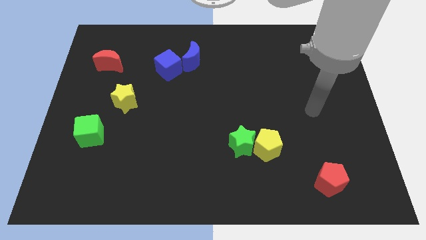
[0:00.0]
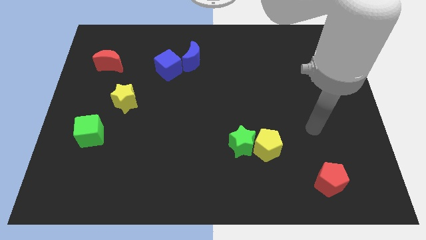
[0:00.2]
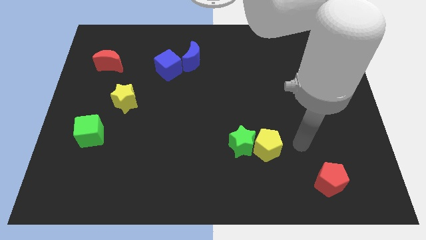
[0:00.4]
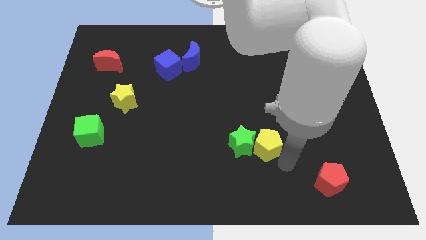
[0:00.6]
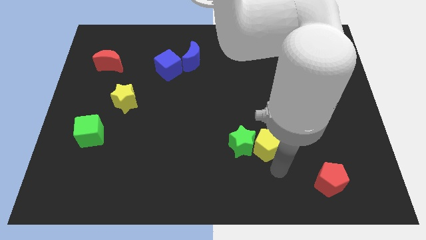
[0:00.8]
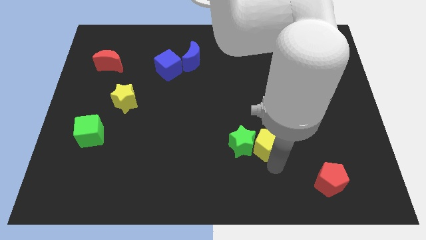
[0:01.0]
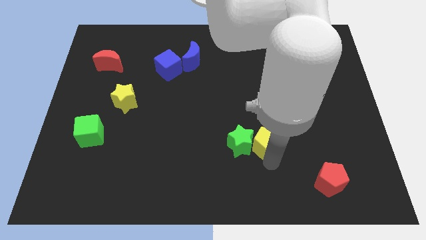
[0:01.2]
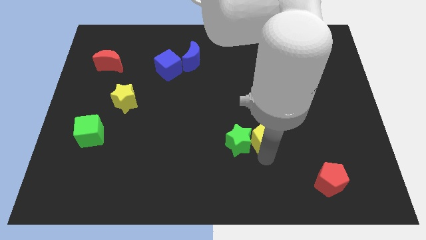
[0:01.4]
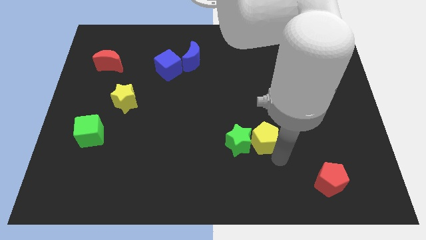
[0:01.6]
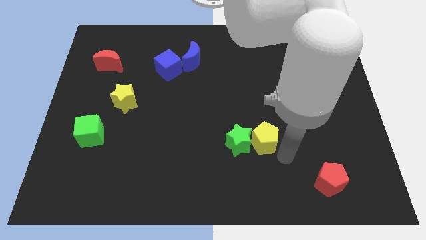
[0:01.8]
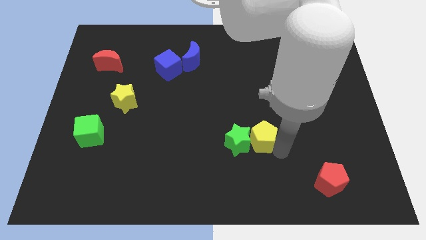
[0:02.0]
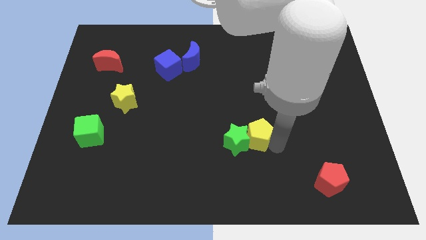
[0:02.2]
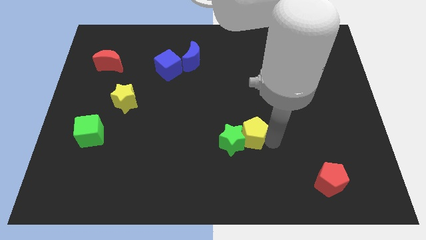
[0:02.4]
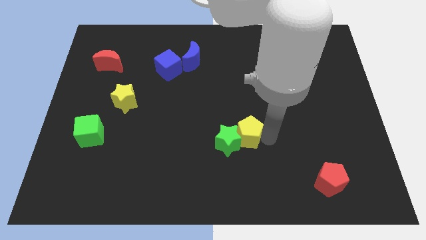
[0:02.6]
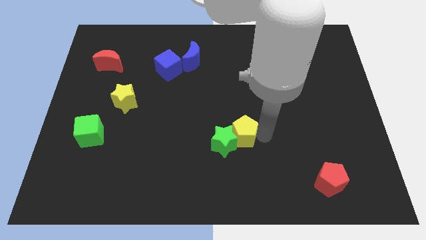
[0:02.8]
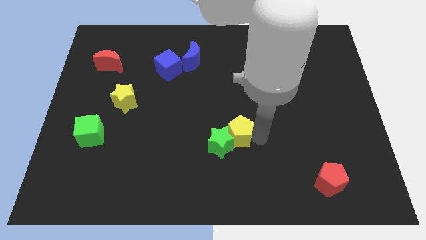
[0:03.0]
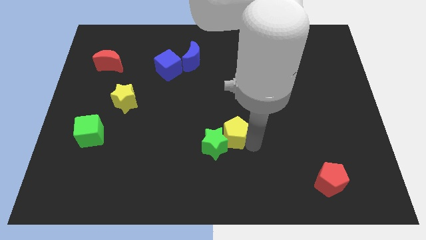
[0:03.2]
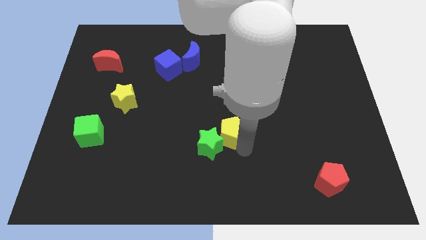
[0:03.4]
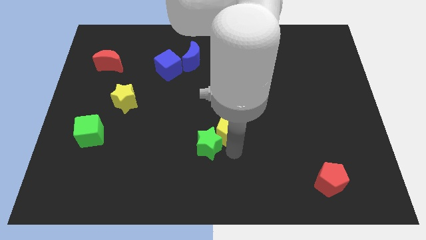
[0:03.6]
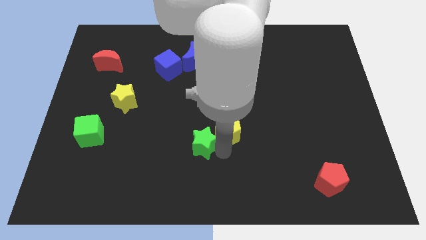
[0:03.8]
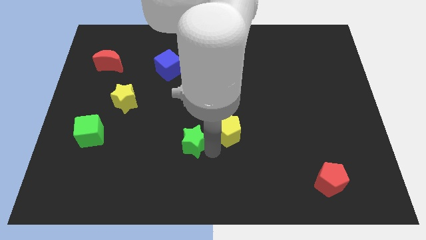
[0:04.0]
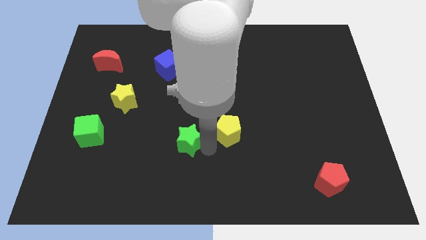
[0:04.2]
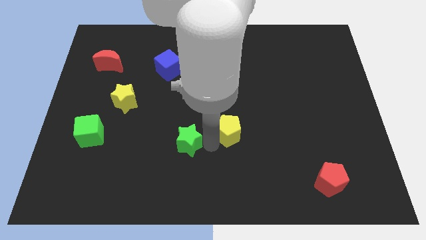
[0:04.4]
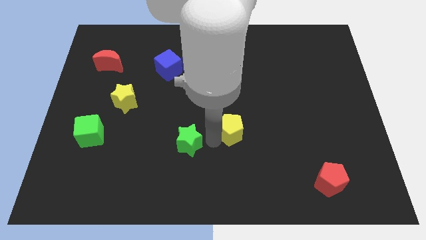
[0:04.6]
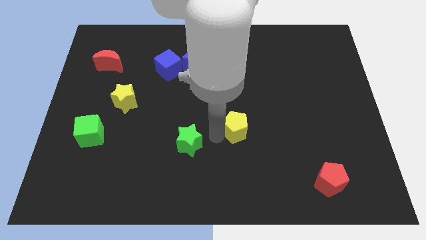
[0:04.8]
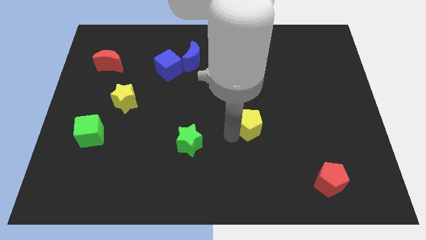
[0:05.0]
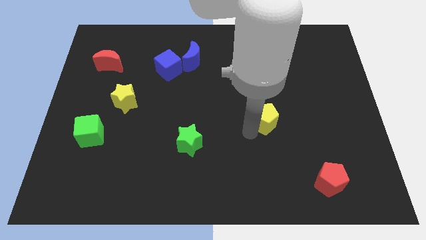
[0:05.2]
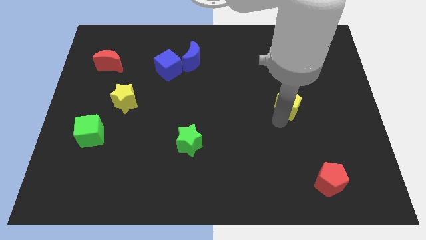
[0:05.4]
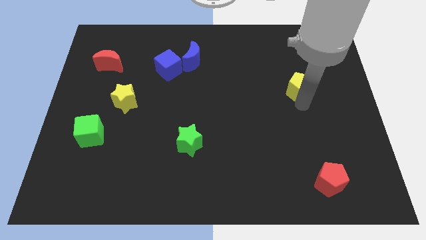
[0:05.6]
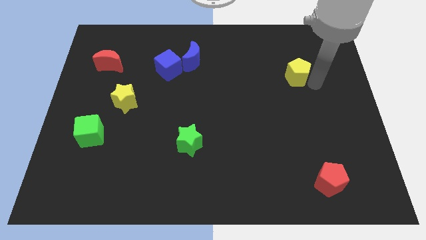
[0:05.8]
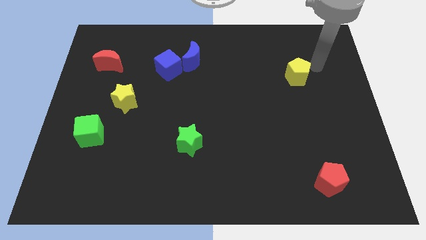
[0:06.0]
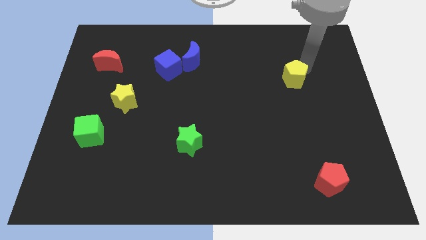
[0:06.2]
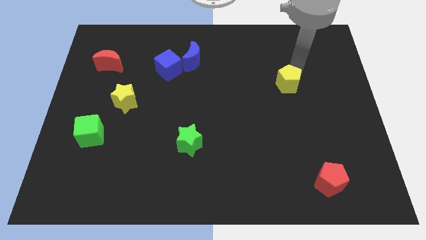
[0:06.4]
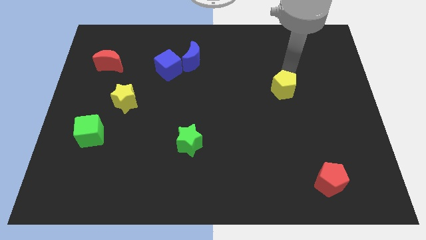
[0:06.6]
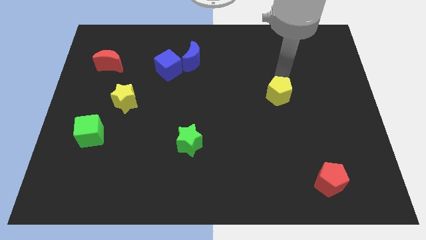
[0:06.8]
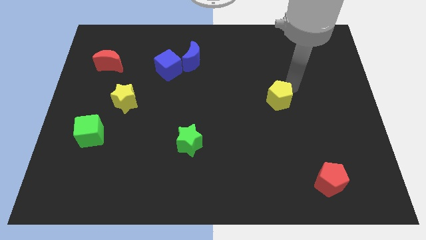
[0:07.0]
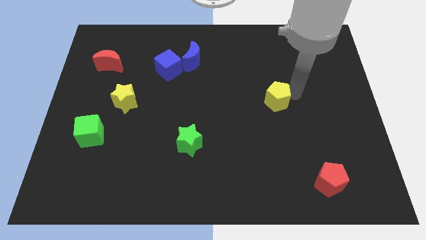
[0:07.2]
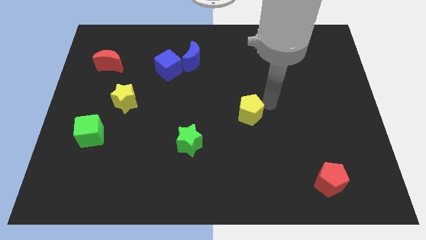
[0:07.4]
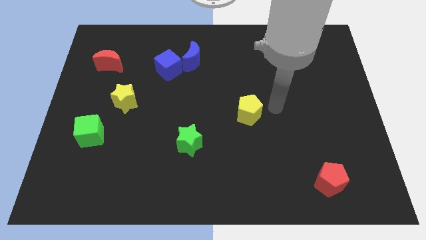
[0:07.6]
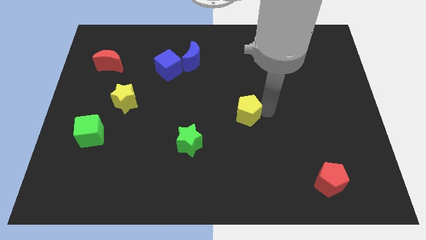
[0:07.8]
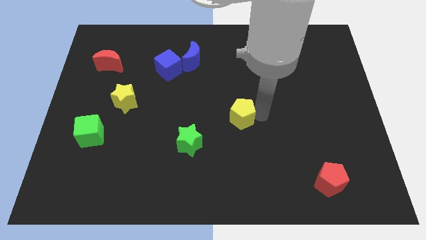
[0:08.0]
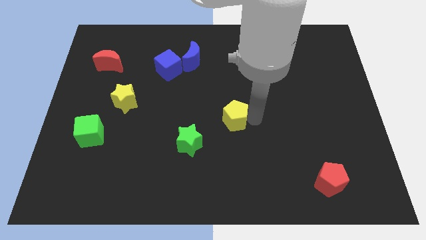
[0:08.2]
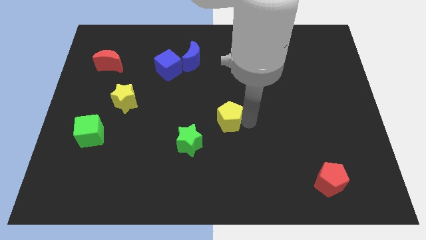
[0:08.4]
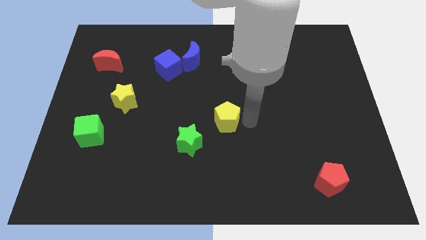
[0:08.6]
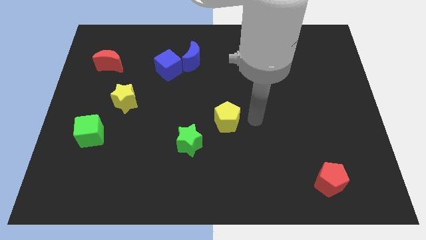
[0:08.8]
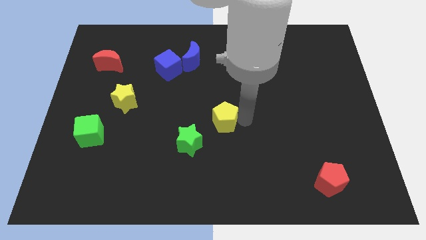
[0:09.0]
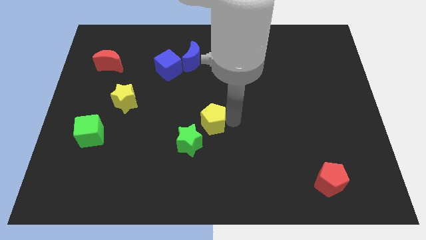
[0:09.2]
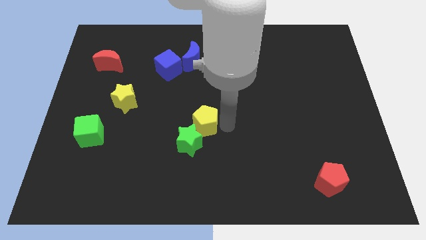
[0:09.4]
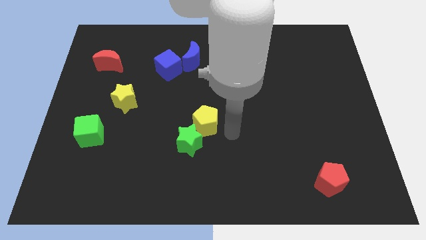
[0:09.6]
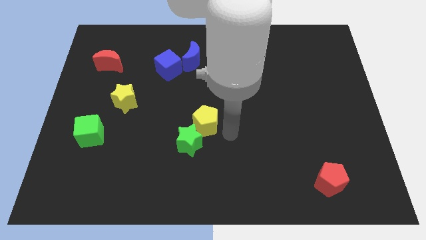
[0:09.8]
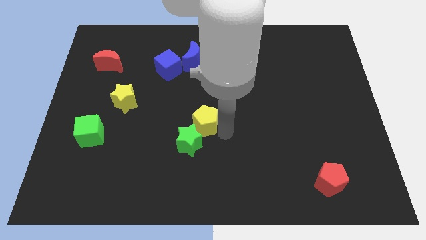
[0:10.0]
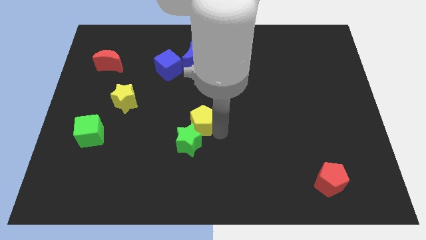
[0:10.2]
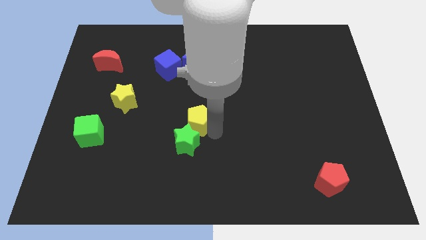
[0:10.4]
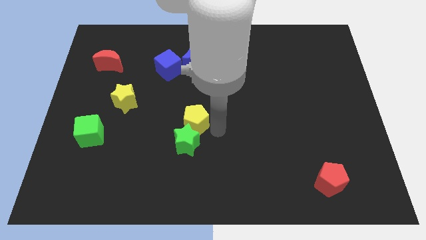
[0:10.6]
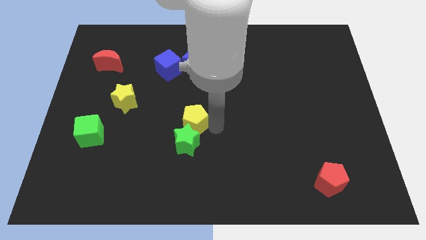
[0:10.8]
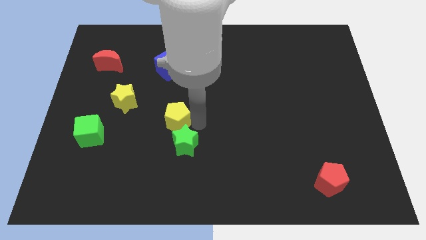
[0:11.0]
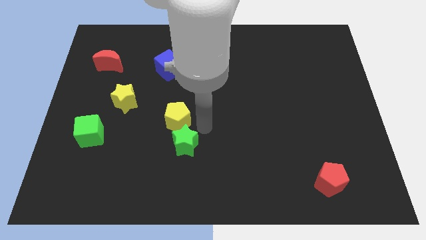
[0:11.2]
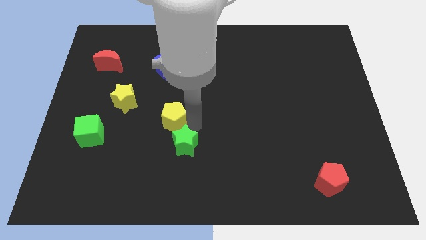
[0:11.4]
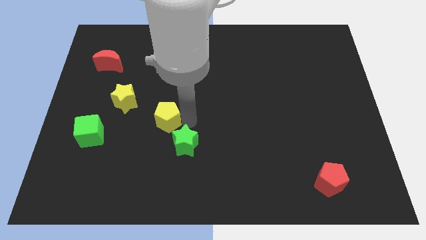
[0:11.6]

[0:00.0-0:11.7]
slide the yellow pentagon diagonally down and to the right of the yellow star

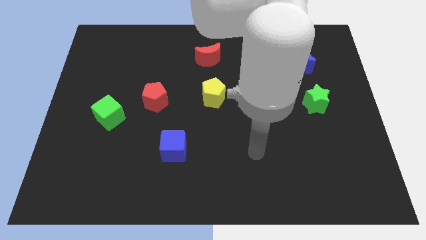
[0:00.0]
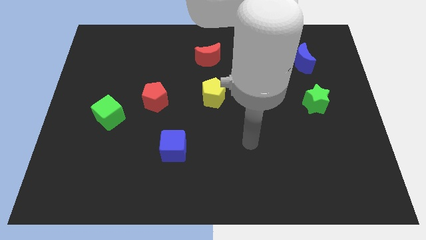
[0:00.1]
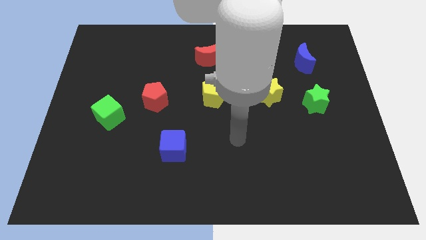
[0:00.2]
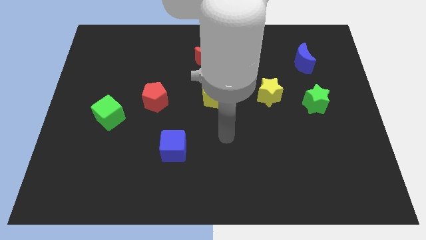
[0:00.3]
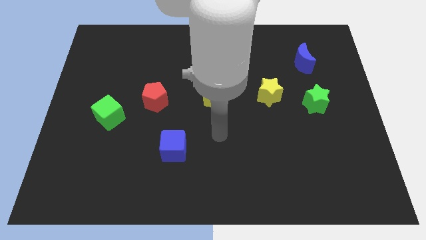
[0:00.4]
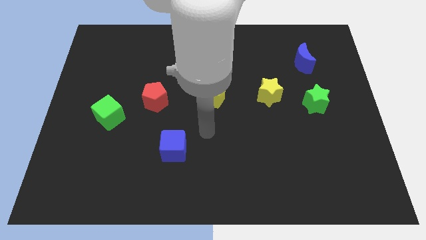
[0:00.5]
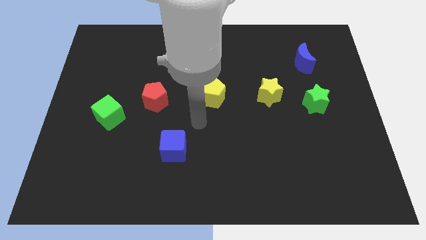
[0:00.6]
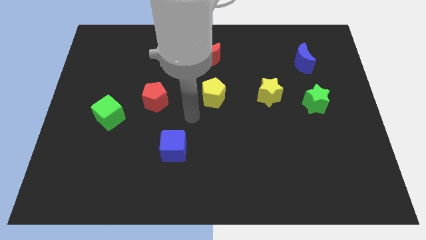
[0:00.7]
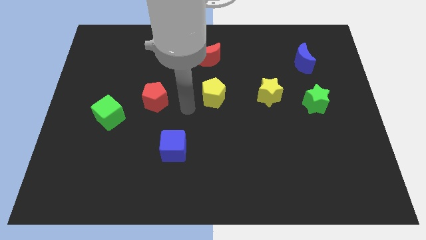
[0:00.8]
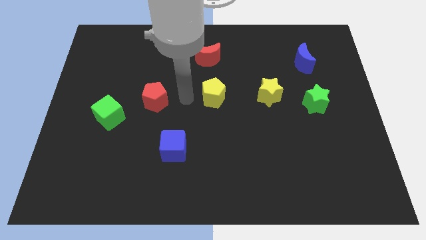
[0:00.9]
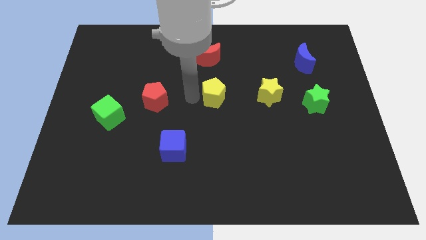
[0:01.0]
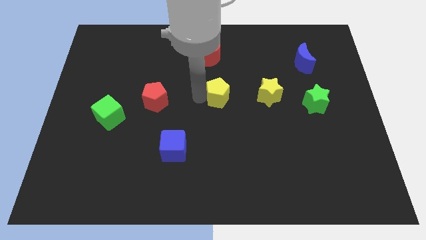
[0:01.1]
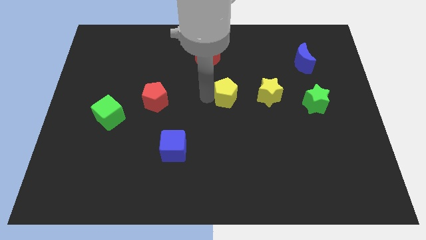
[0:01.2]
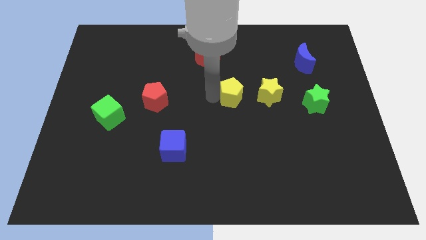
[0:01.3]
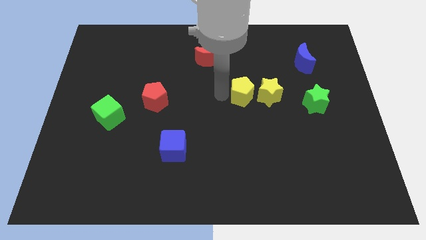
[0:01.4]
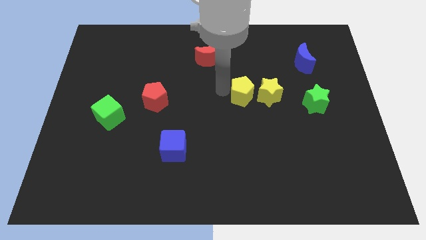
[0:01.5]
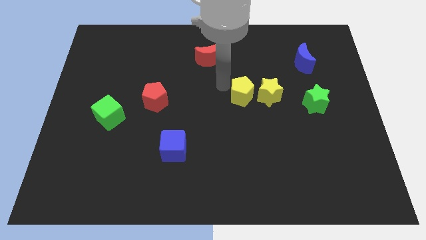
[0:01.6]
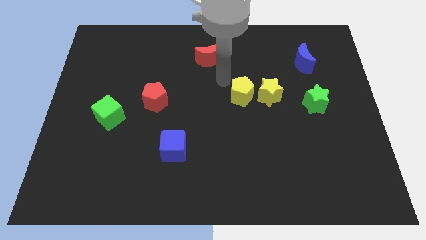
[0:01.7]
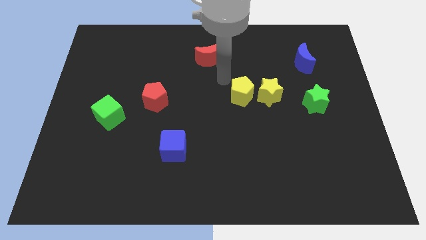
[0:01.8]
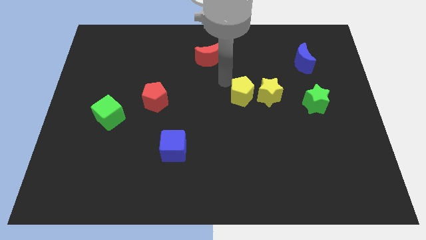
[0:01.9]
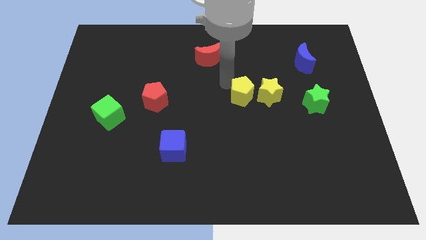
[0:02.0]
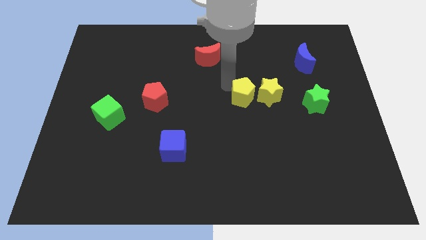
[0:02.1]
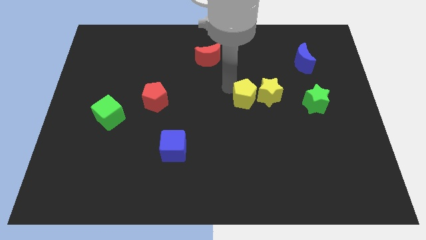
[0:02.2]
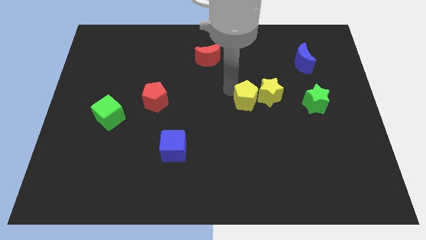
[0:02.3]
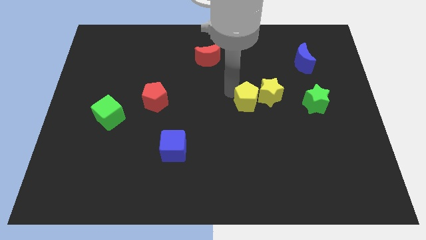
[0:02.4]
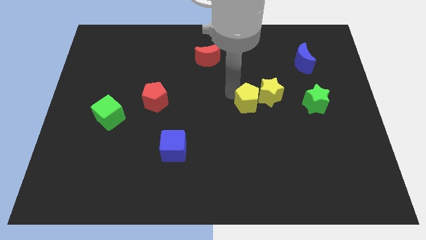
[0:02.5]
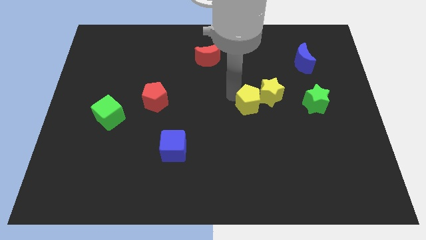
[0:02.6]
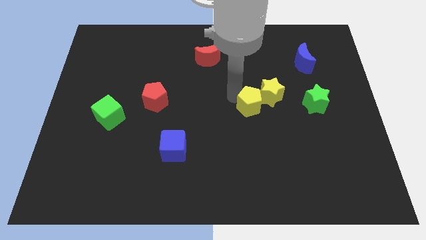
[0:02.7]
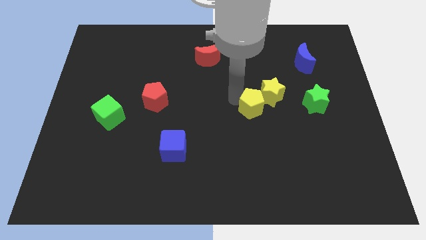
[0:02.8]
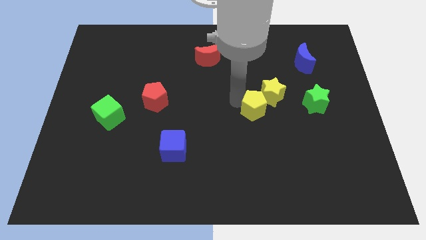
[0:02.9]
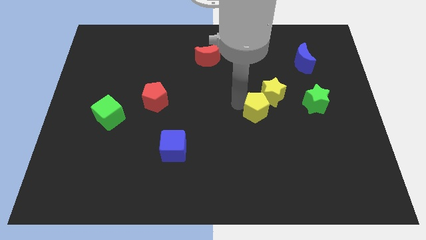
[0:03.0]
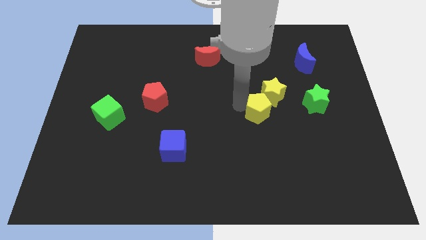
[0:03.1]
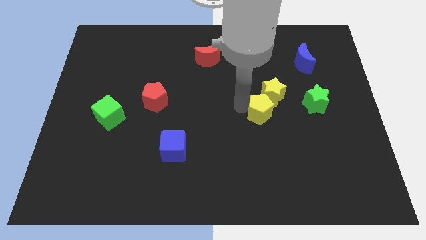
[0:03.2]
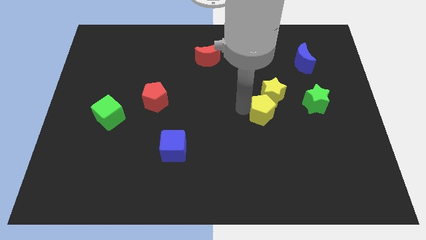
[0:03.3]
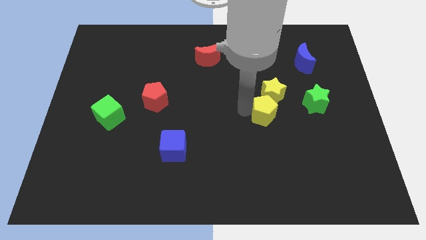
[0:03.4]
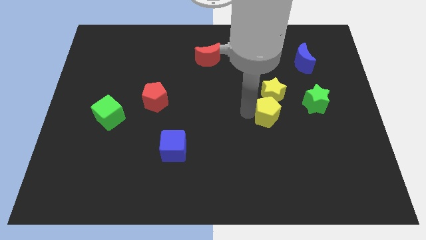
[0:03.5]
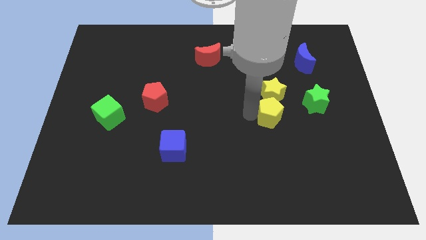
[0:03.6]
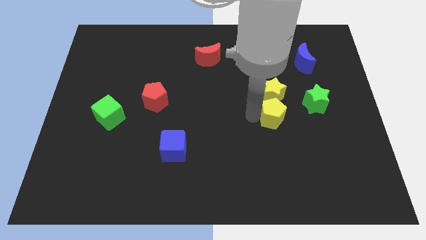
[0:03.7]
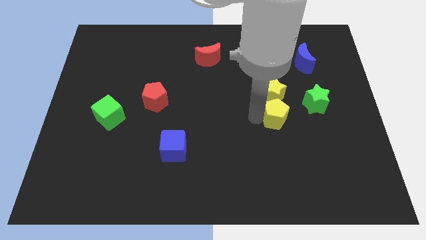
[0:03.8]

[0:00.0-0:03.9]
move the yellow pentagon to the bottom left side of the green star
